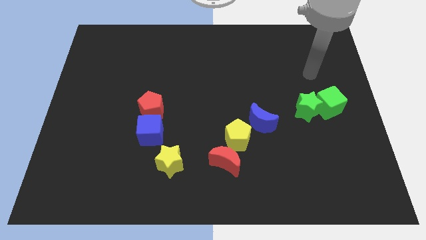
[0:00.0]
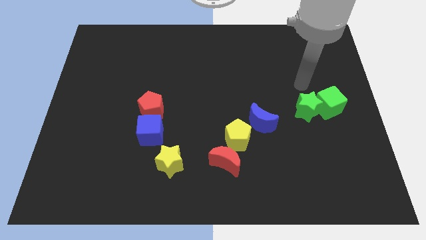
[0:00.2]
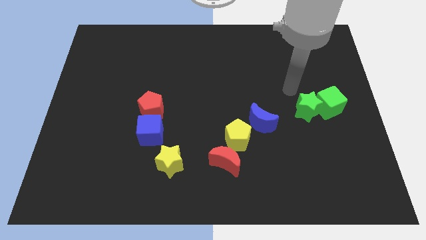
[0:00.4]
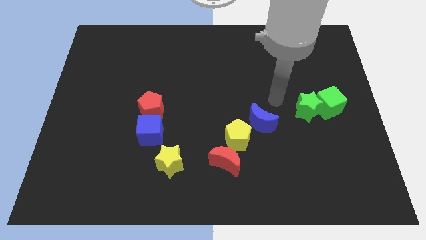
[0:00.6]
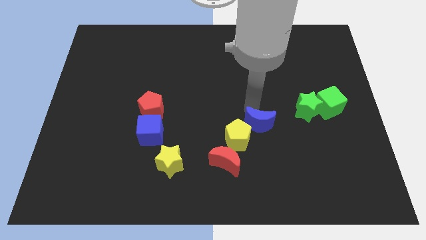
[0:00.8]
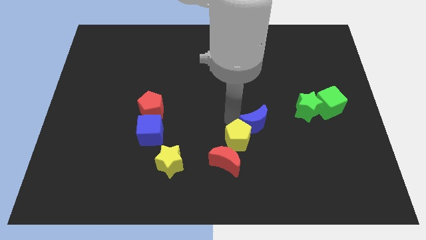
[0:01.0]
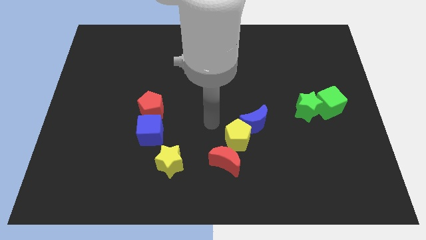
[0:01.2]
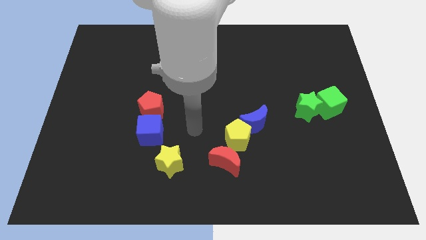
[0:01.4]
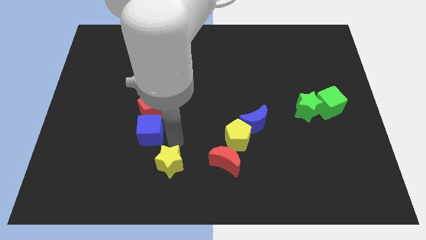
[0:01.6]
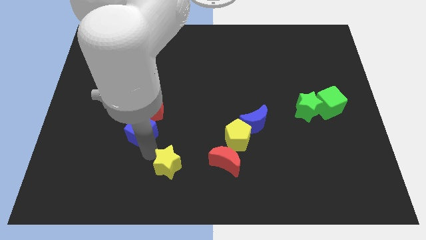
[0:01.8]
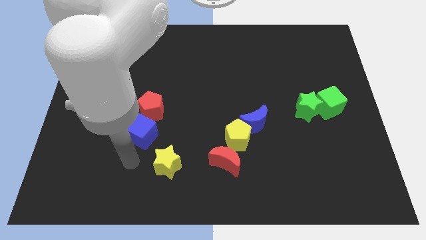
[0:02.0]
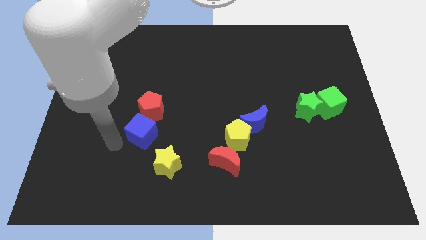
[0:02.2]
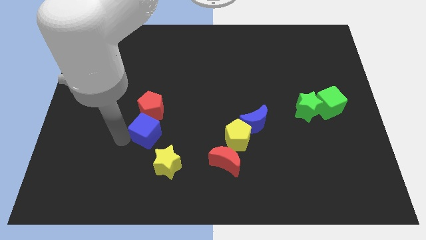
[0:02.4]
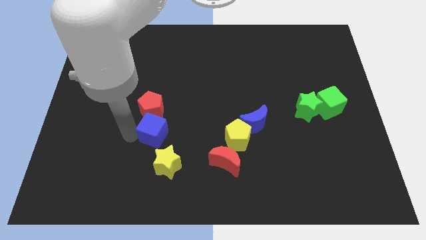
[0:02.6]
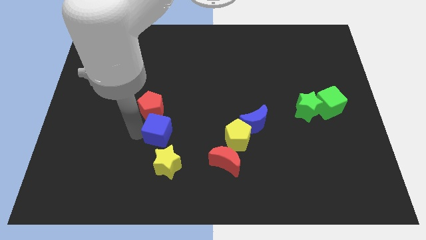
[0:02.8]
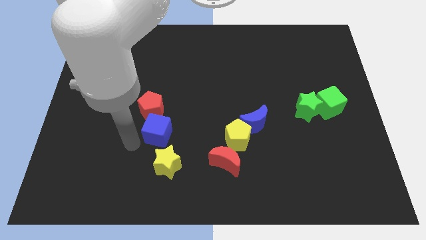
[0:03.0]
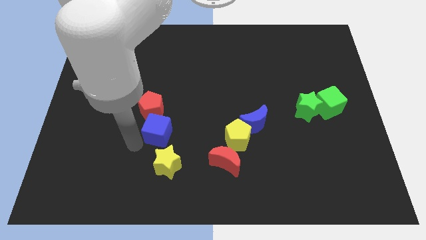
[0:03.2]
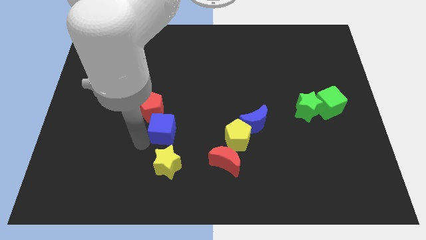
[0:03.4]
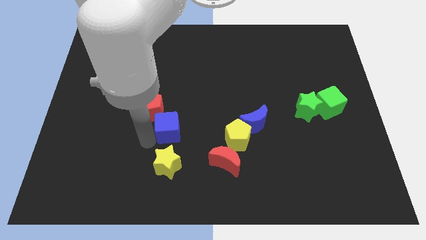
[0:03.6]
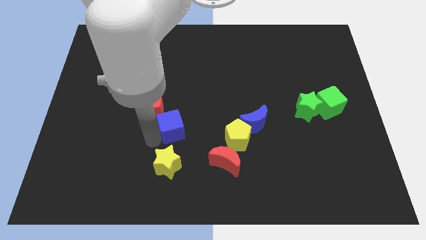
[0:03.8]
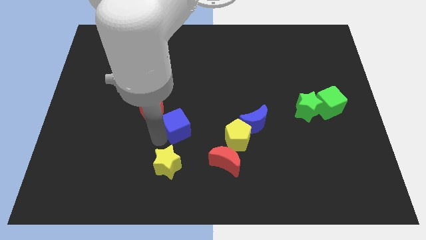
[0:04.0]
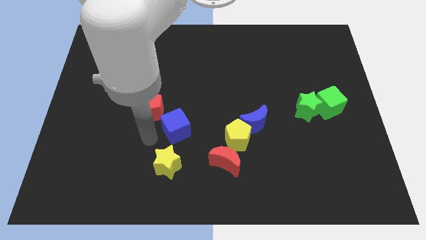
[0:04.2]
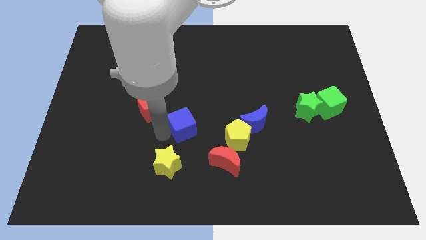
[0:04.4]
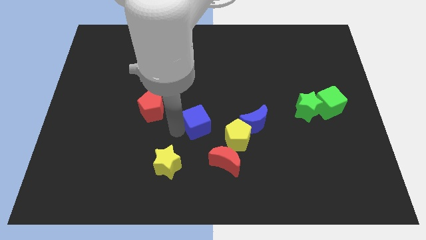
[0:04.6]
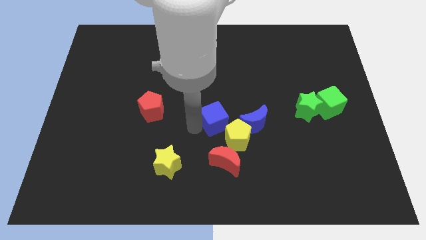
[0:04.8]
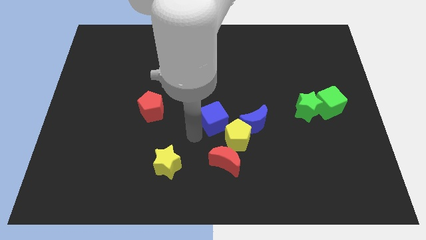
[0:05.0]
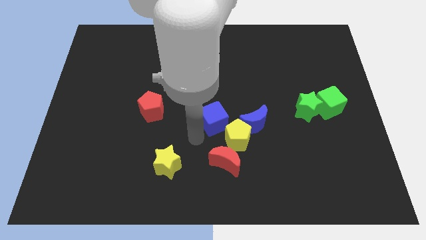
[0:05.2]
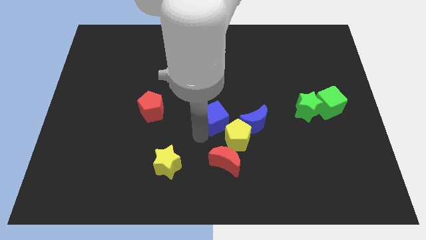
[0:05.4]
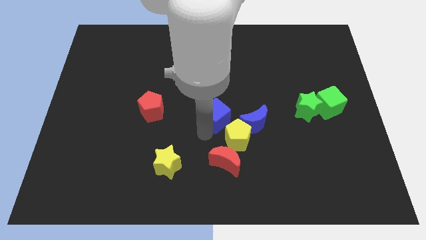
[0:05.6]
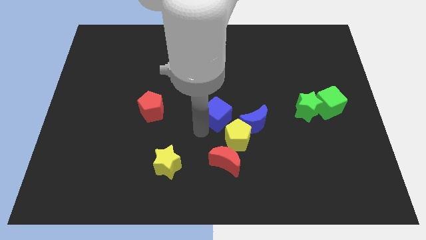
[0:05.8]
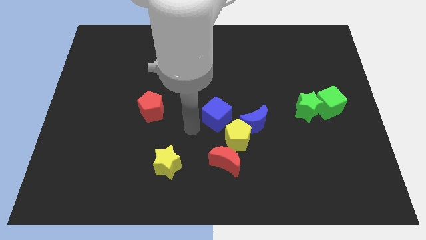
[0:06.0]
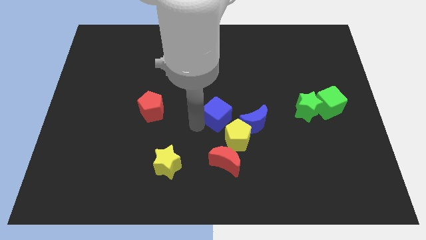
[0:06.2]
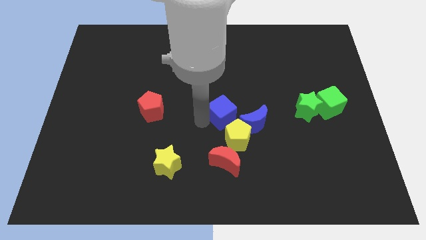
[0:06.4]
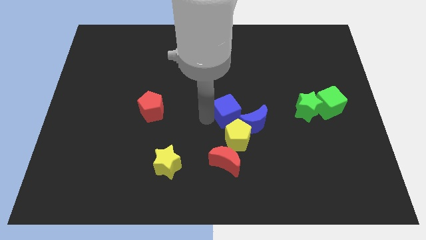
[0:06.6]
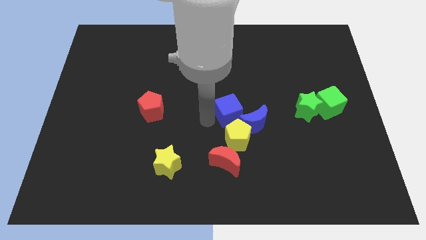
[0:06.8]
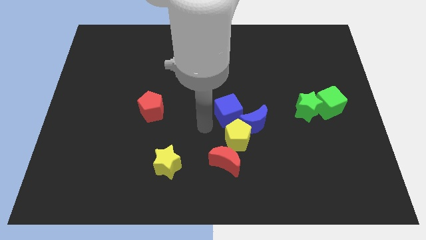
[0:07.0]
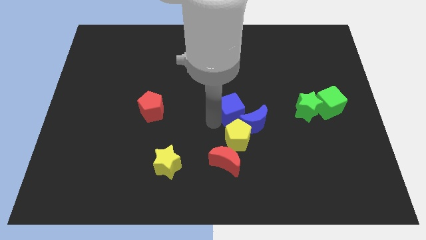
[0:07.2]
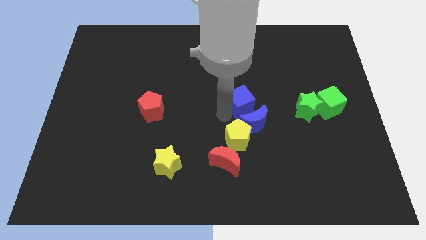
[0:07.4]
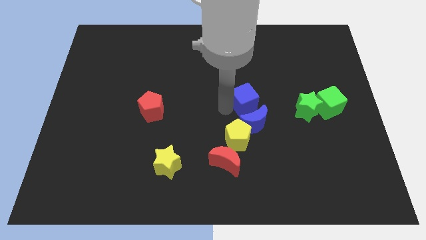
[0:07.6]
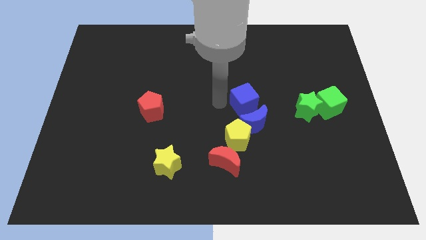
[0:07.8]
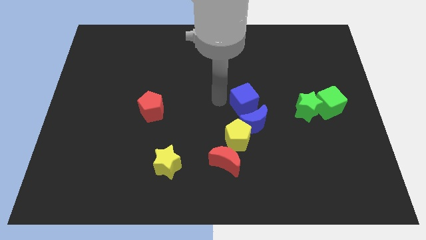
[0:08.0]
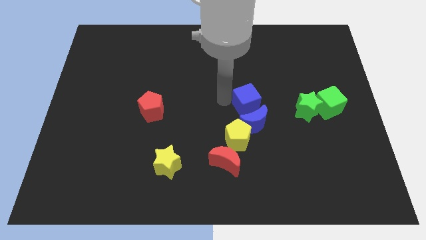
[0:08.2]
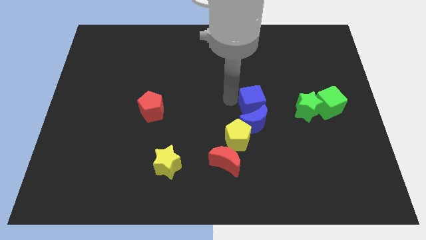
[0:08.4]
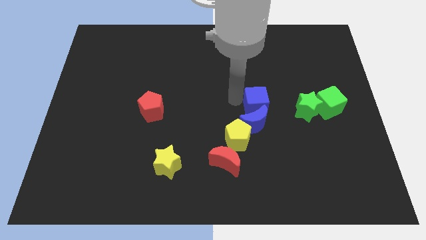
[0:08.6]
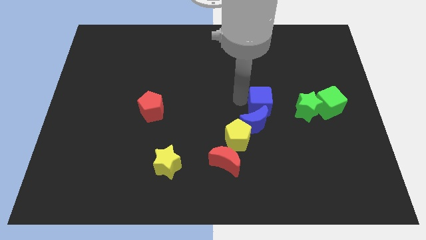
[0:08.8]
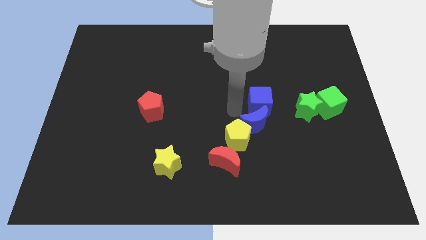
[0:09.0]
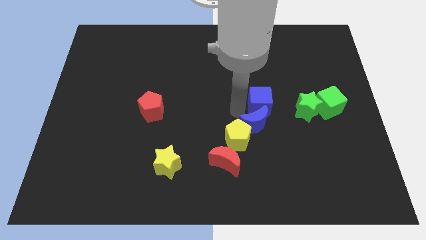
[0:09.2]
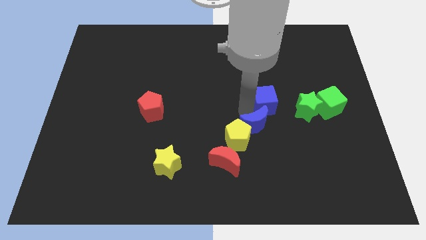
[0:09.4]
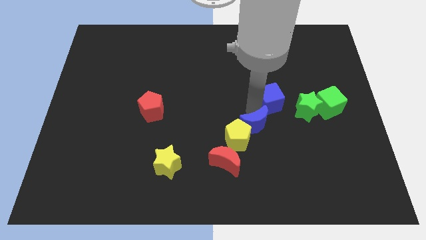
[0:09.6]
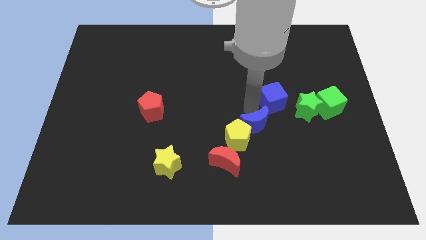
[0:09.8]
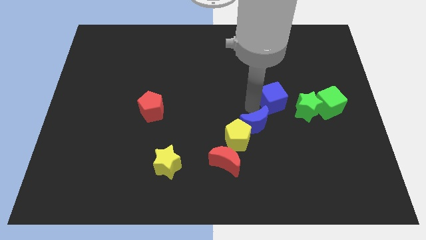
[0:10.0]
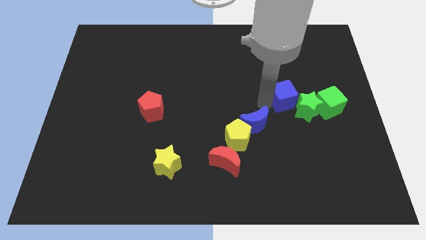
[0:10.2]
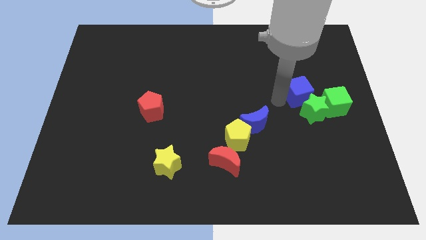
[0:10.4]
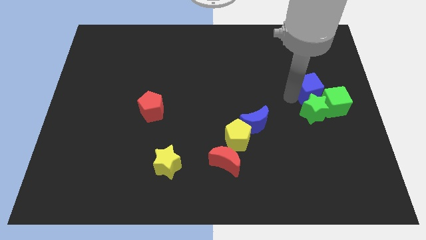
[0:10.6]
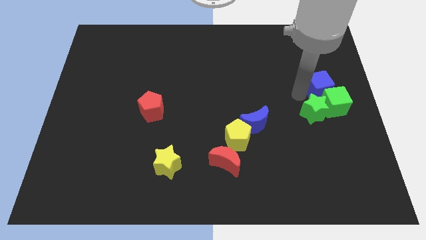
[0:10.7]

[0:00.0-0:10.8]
put the blue cube to the right side

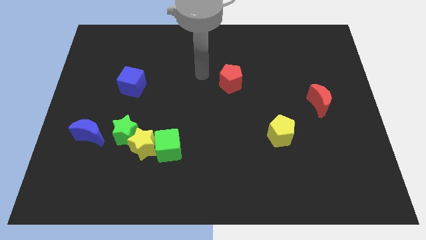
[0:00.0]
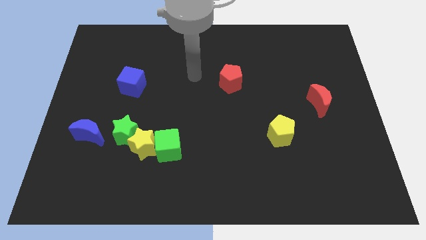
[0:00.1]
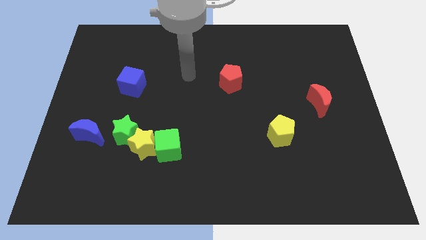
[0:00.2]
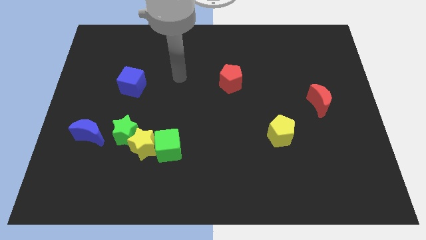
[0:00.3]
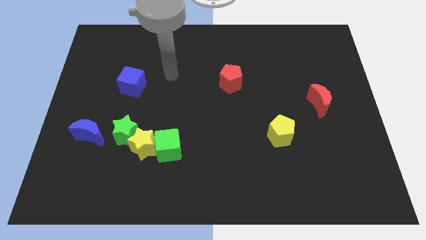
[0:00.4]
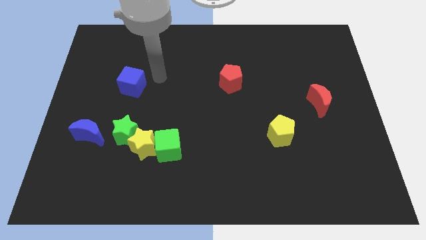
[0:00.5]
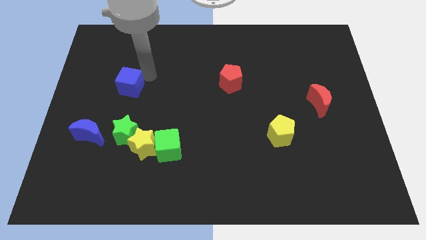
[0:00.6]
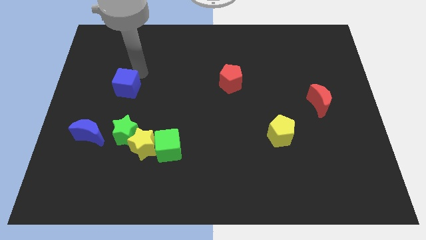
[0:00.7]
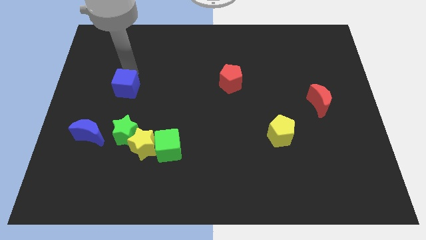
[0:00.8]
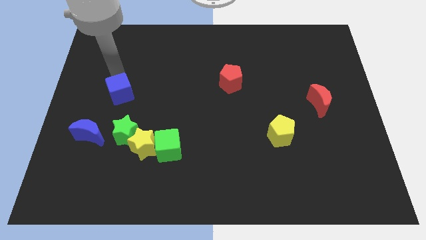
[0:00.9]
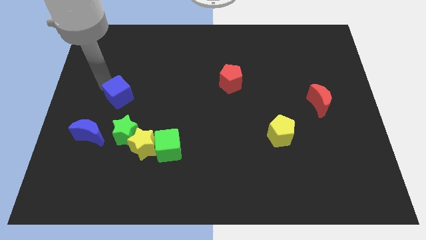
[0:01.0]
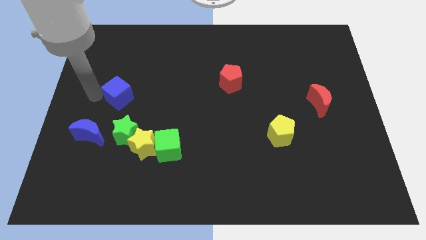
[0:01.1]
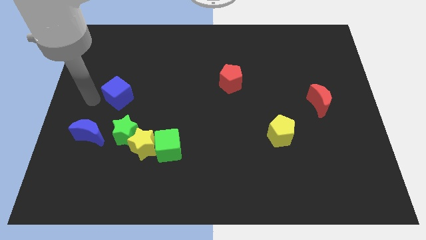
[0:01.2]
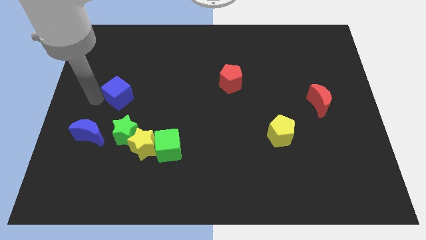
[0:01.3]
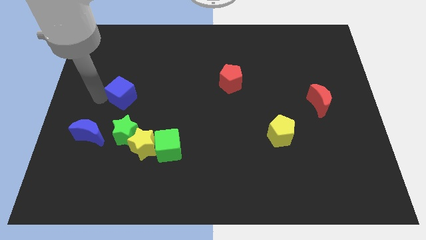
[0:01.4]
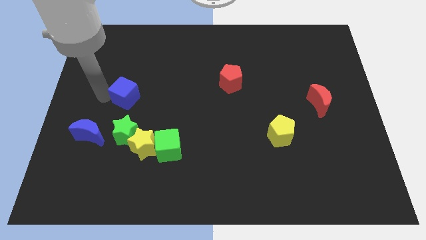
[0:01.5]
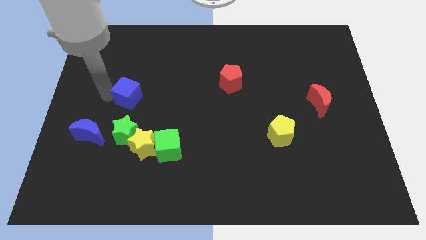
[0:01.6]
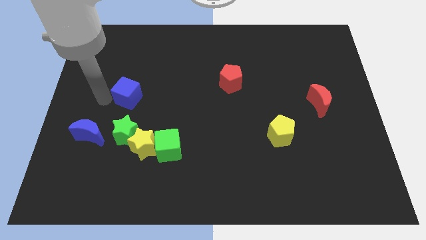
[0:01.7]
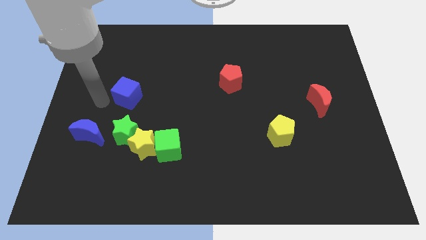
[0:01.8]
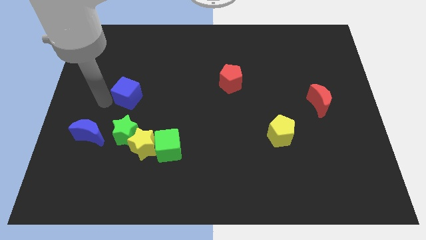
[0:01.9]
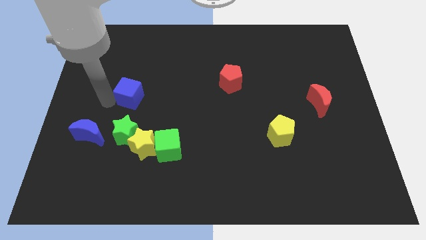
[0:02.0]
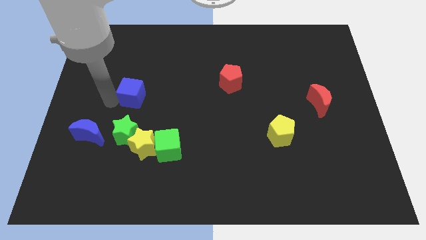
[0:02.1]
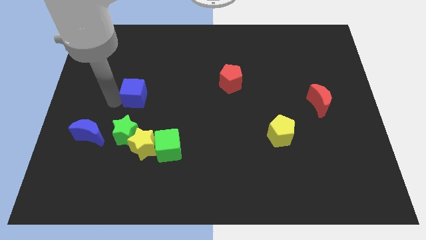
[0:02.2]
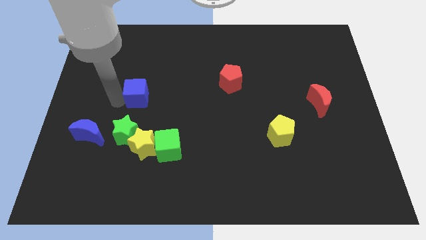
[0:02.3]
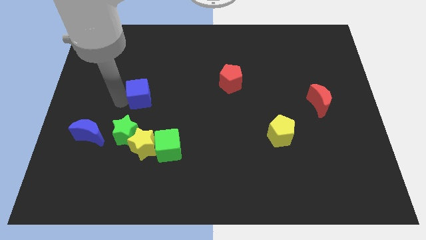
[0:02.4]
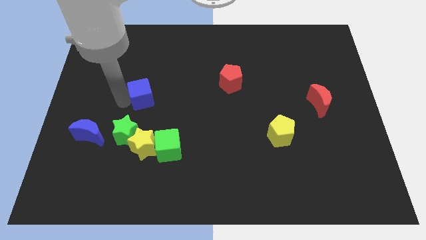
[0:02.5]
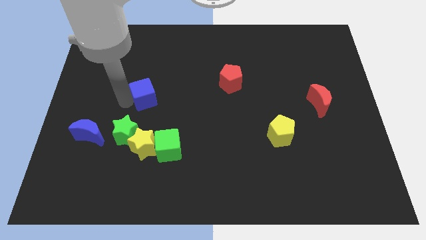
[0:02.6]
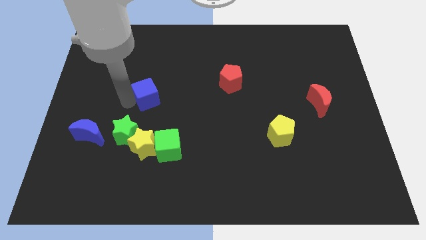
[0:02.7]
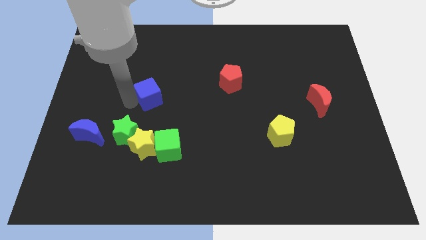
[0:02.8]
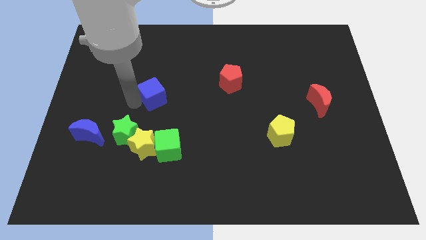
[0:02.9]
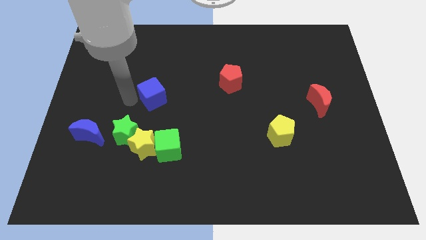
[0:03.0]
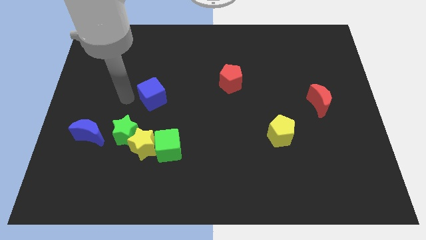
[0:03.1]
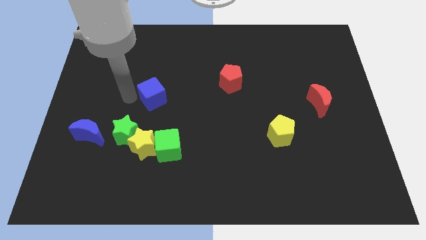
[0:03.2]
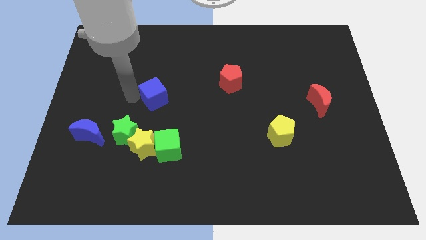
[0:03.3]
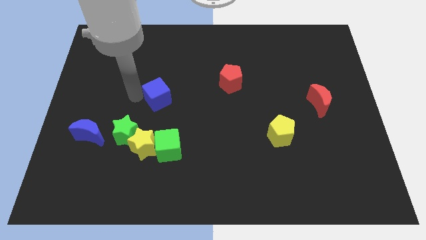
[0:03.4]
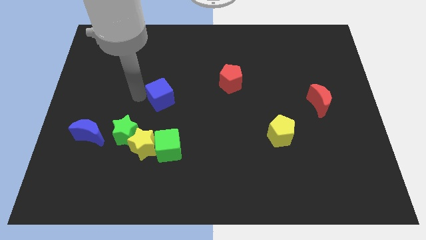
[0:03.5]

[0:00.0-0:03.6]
put the blue cube to the center
